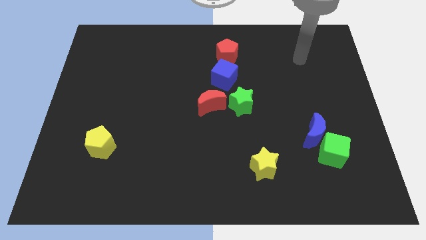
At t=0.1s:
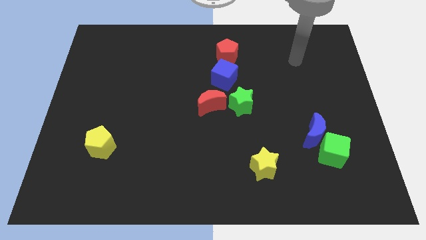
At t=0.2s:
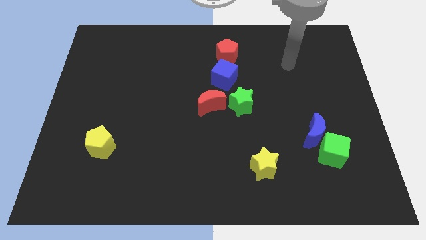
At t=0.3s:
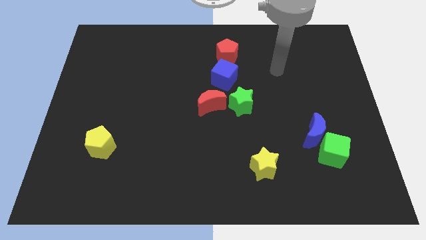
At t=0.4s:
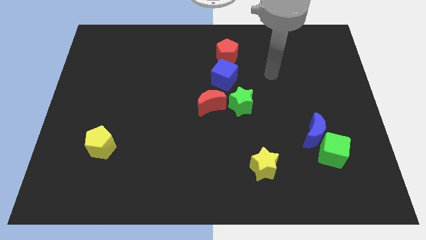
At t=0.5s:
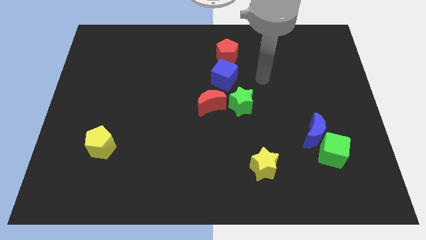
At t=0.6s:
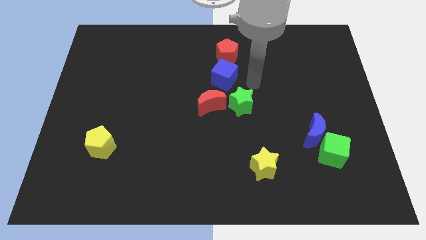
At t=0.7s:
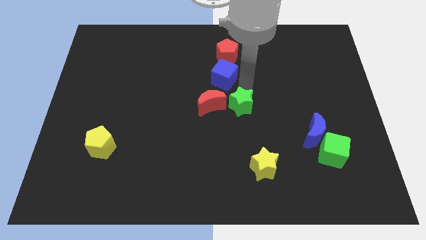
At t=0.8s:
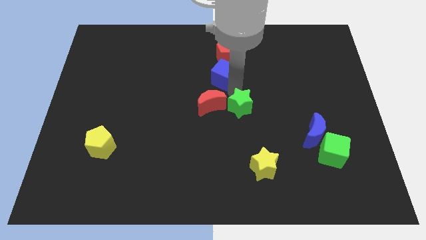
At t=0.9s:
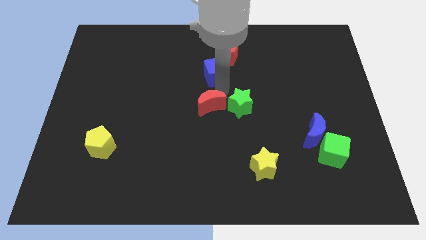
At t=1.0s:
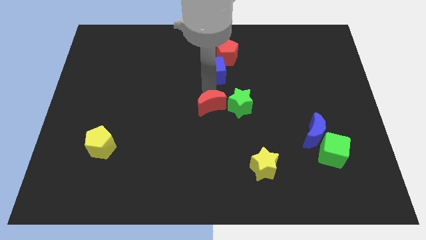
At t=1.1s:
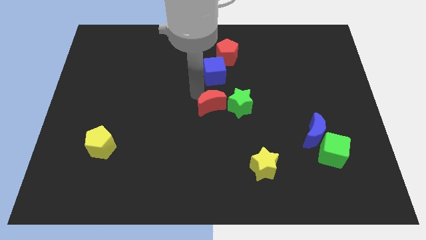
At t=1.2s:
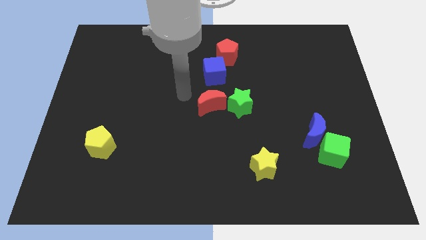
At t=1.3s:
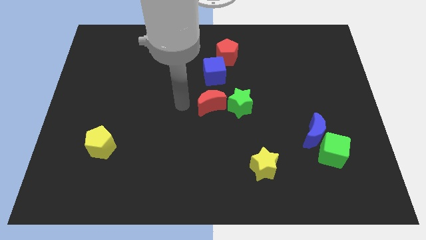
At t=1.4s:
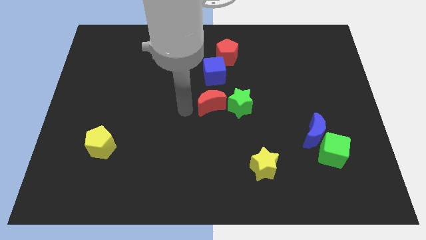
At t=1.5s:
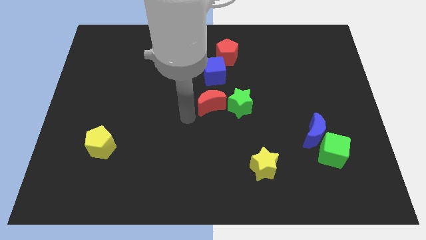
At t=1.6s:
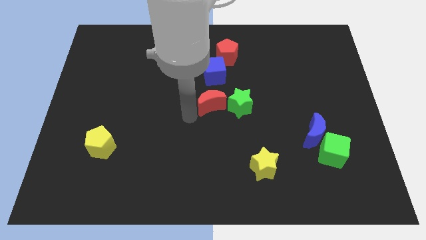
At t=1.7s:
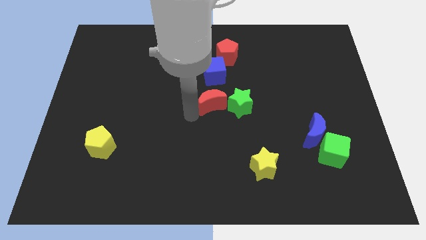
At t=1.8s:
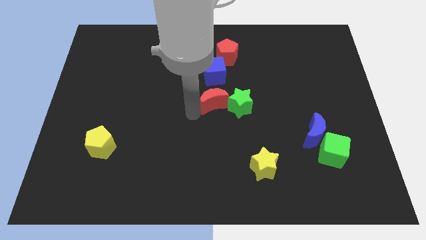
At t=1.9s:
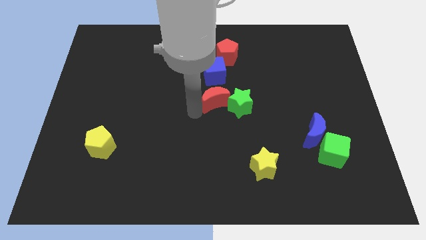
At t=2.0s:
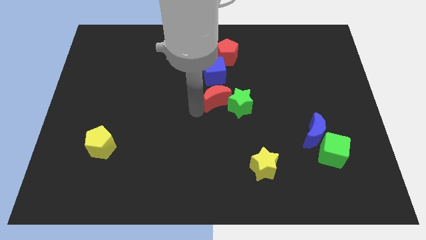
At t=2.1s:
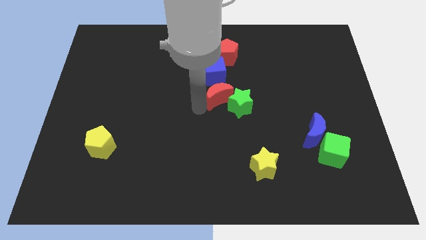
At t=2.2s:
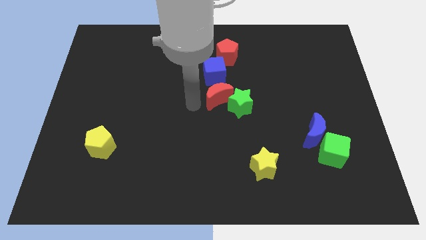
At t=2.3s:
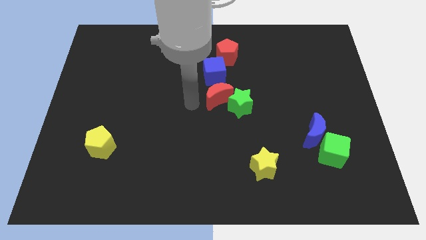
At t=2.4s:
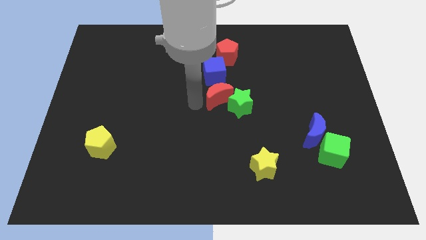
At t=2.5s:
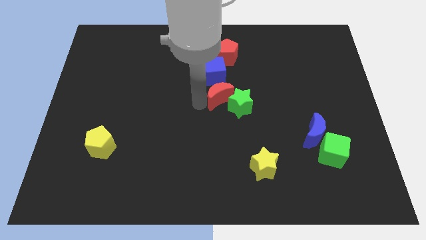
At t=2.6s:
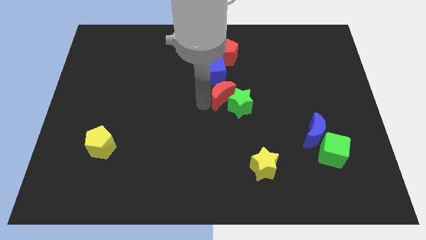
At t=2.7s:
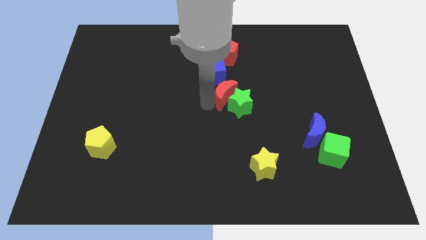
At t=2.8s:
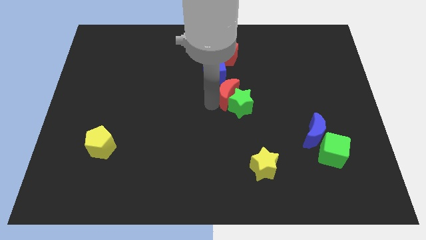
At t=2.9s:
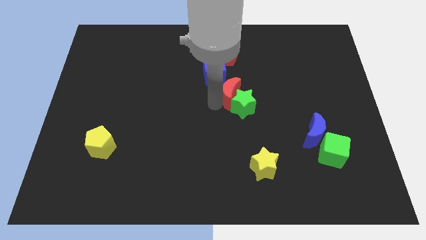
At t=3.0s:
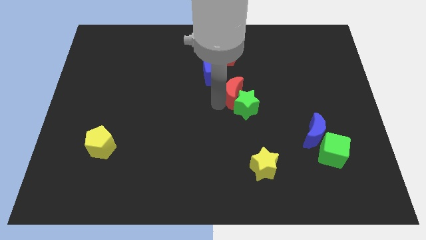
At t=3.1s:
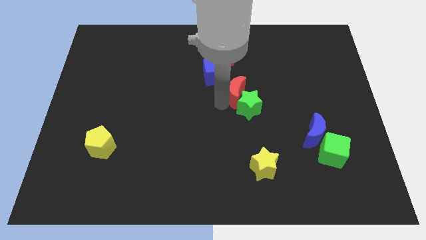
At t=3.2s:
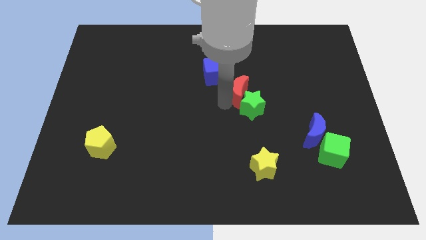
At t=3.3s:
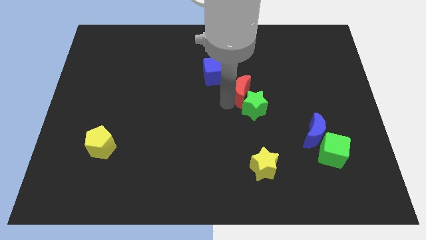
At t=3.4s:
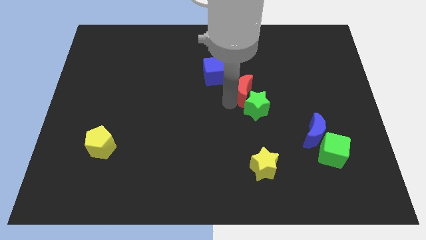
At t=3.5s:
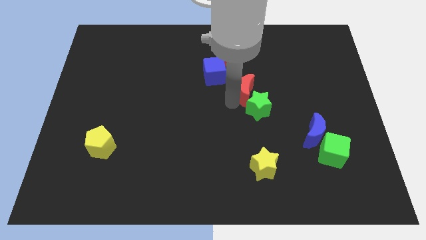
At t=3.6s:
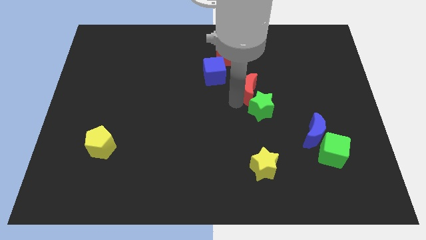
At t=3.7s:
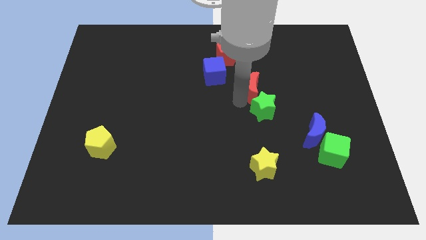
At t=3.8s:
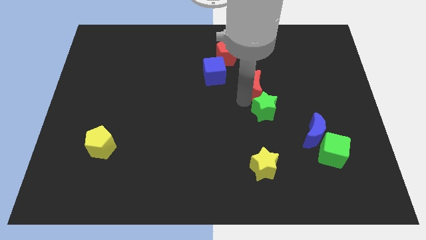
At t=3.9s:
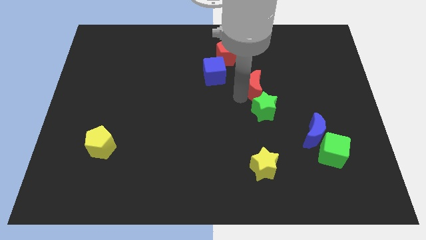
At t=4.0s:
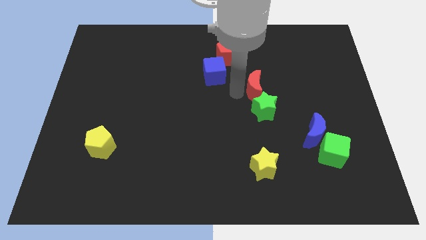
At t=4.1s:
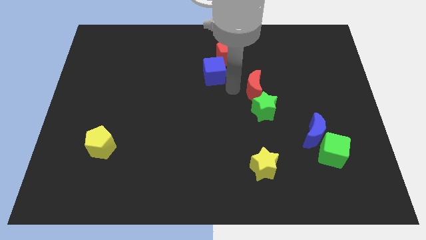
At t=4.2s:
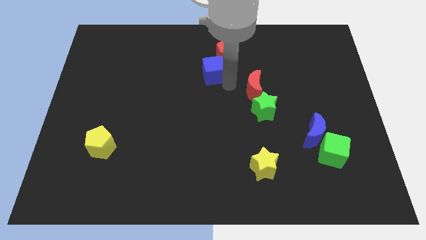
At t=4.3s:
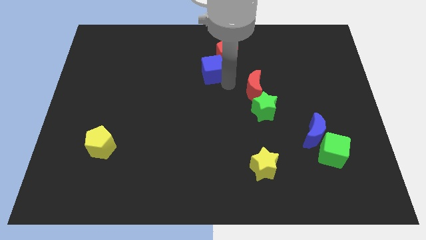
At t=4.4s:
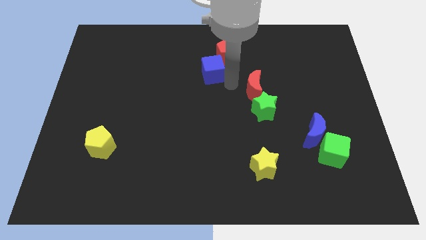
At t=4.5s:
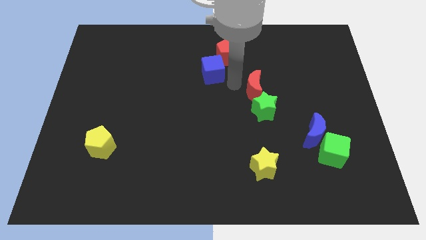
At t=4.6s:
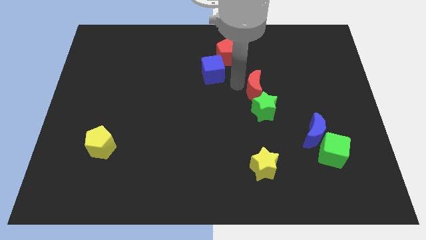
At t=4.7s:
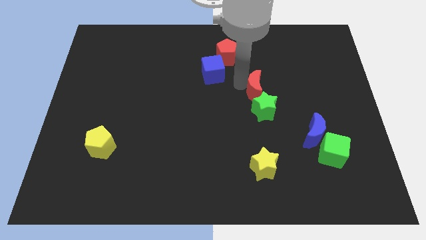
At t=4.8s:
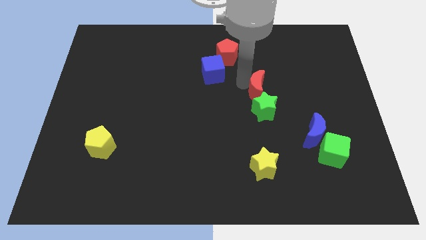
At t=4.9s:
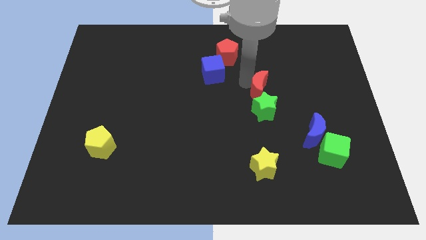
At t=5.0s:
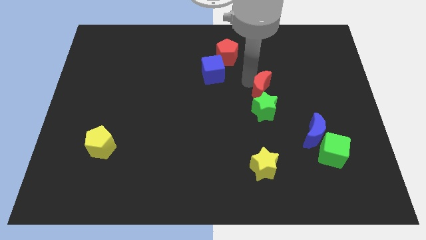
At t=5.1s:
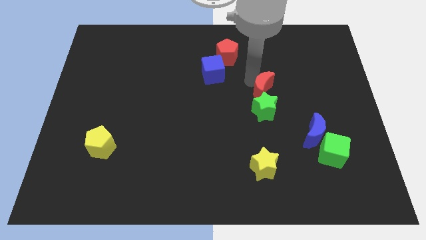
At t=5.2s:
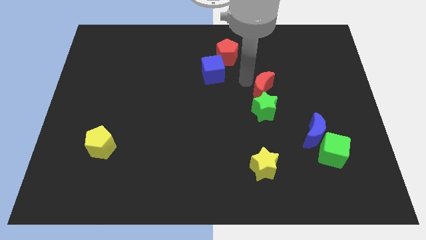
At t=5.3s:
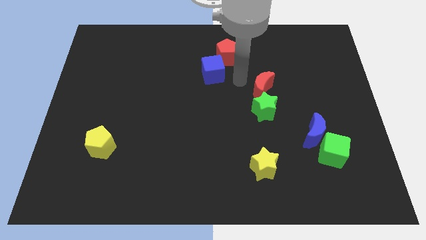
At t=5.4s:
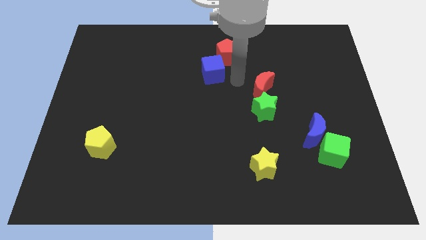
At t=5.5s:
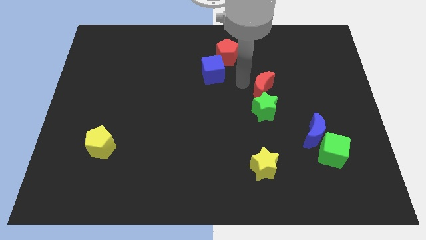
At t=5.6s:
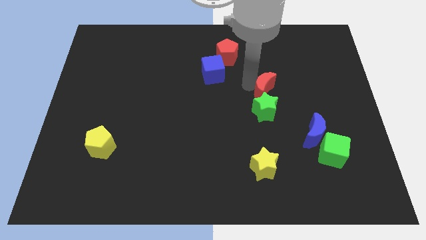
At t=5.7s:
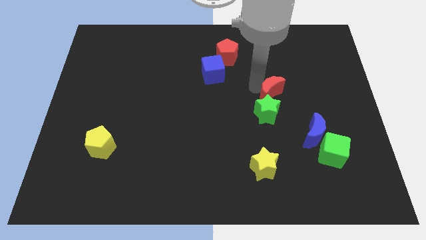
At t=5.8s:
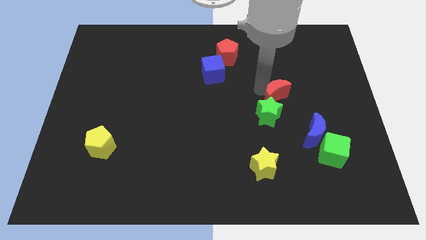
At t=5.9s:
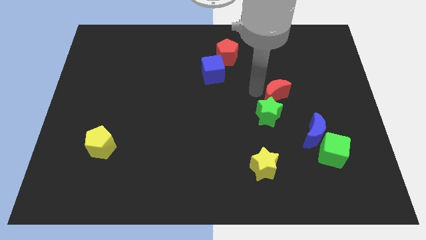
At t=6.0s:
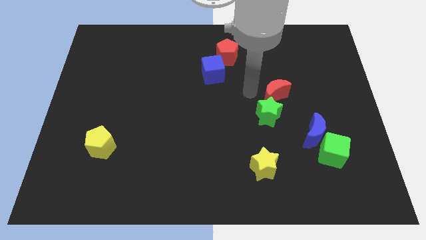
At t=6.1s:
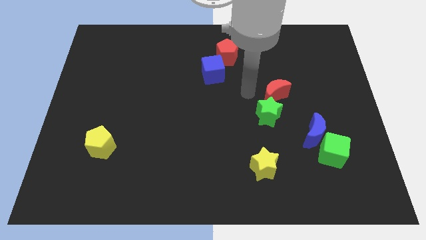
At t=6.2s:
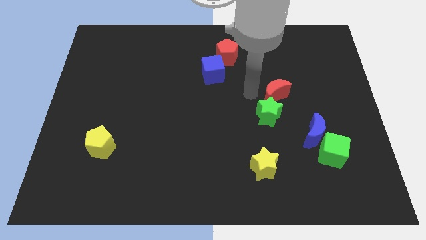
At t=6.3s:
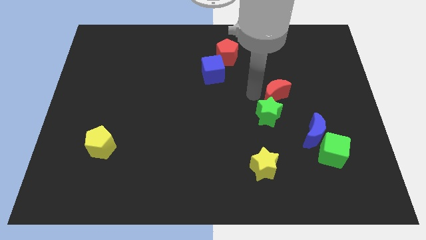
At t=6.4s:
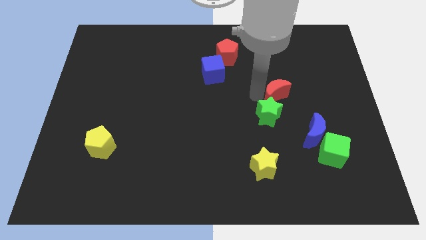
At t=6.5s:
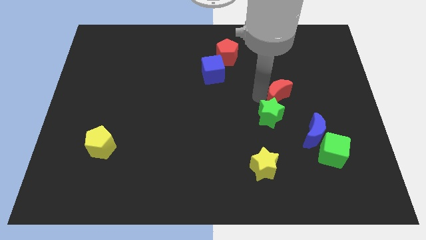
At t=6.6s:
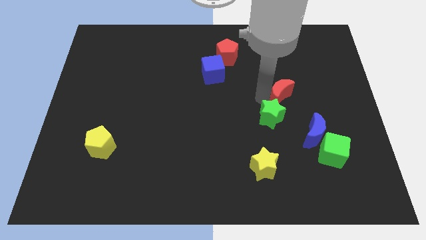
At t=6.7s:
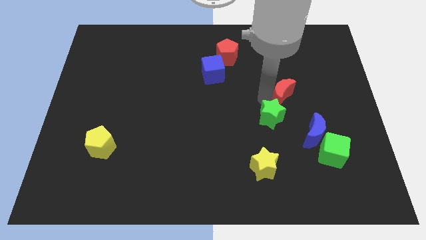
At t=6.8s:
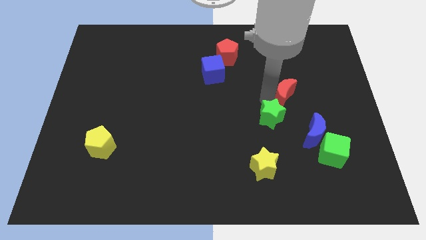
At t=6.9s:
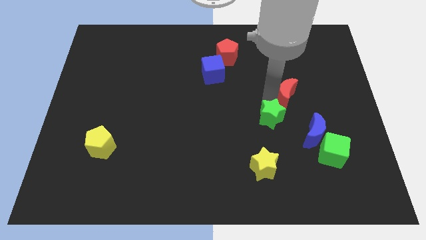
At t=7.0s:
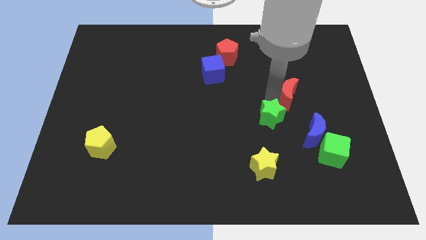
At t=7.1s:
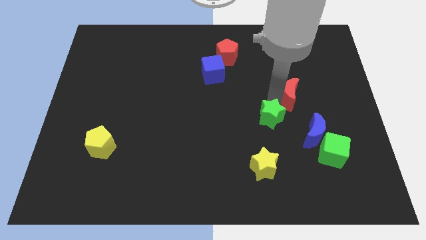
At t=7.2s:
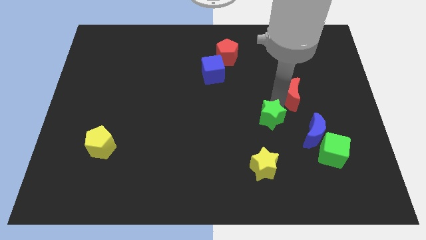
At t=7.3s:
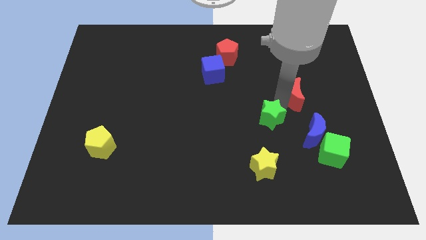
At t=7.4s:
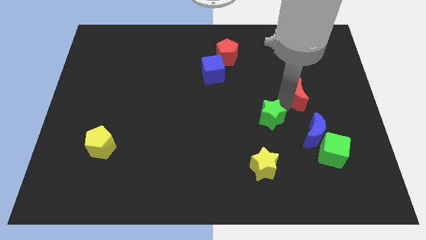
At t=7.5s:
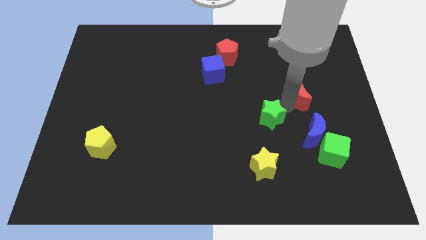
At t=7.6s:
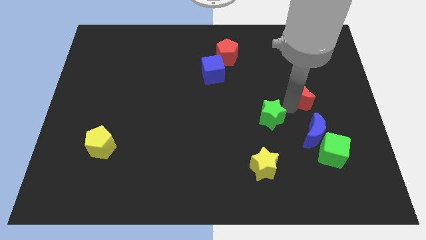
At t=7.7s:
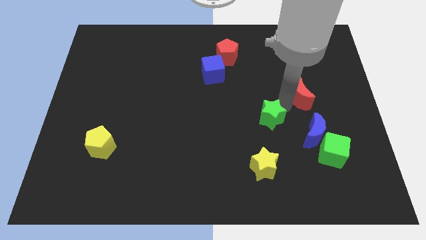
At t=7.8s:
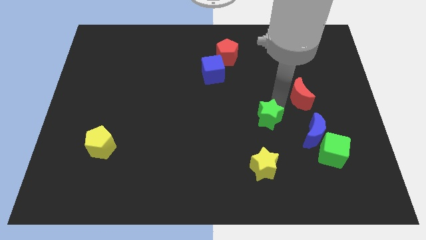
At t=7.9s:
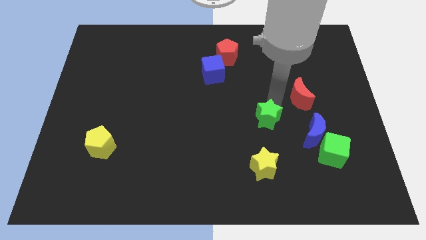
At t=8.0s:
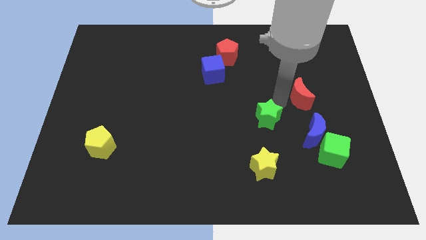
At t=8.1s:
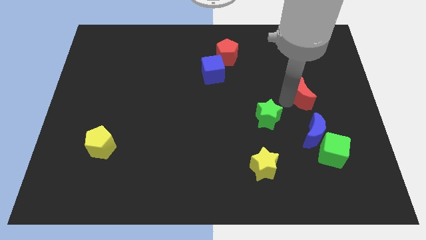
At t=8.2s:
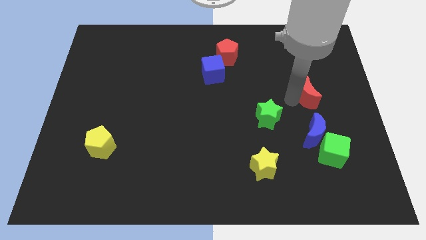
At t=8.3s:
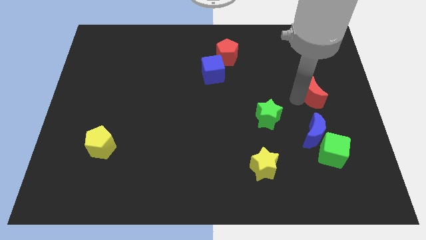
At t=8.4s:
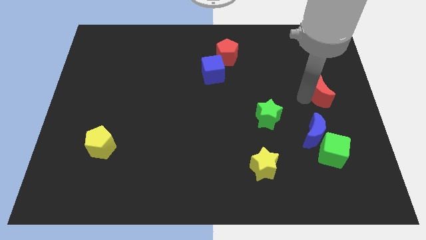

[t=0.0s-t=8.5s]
push the red moon to the center right
